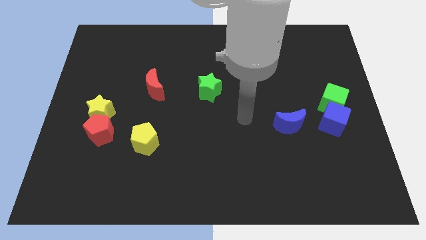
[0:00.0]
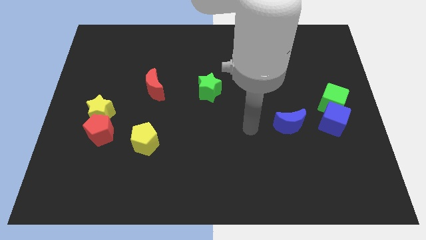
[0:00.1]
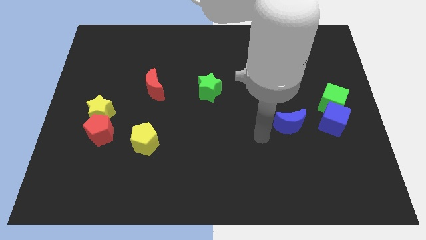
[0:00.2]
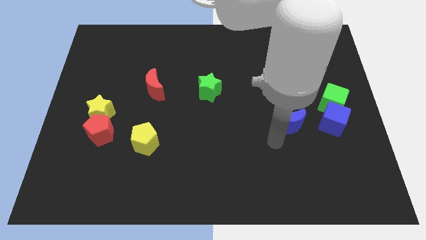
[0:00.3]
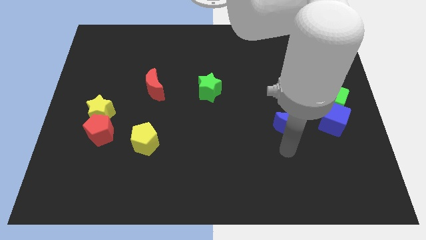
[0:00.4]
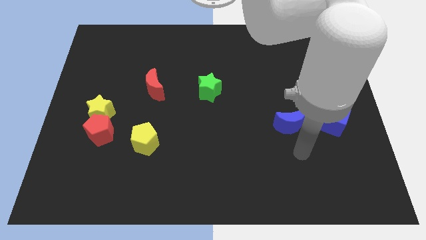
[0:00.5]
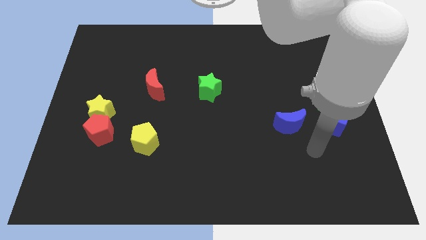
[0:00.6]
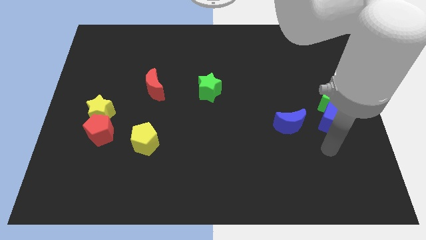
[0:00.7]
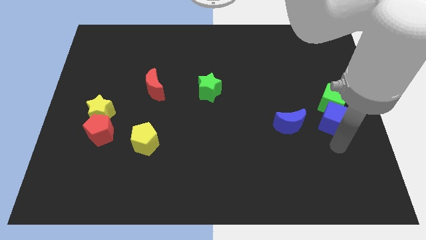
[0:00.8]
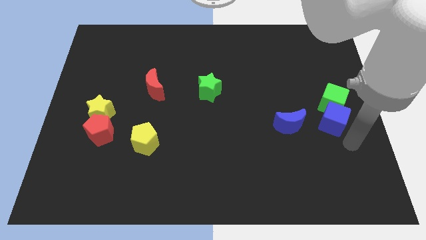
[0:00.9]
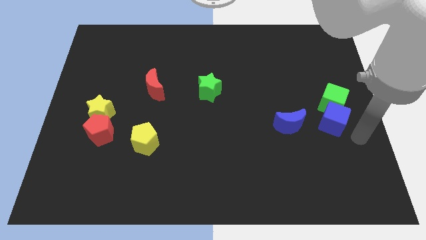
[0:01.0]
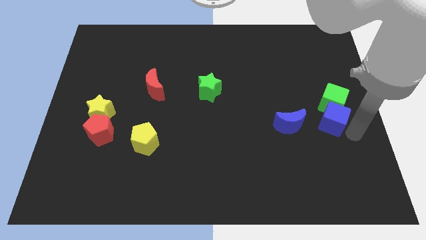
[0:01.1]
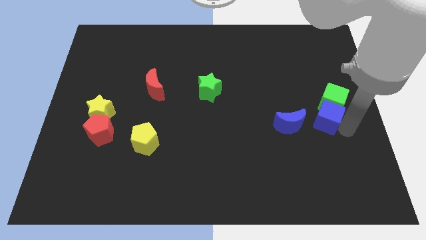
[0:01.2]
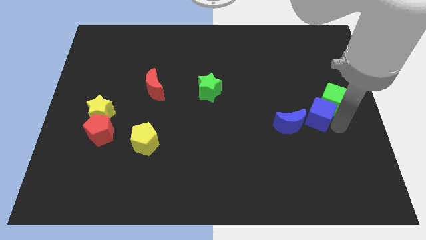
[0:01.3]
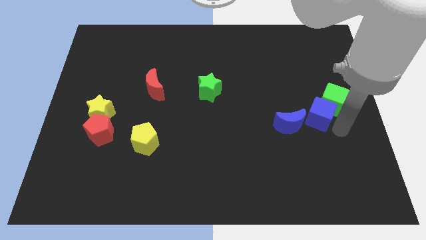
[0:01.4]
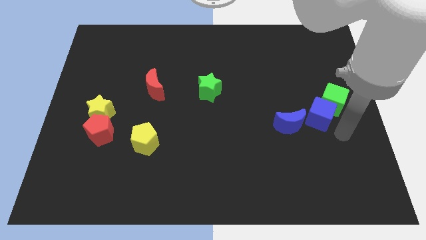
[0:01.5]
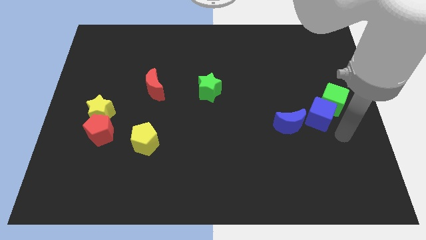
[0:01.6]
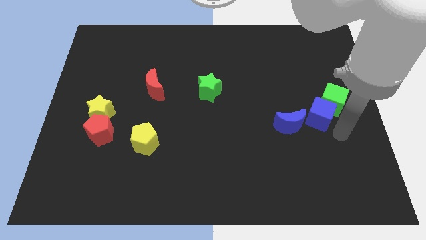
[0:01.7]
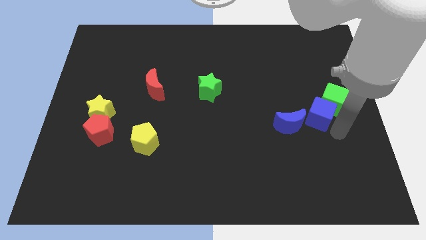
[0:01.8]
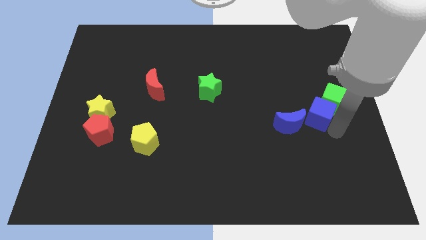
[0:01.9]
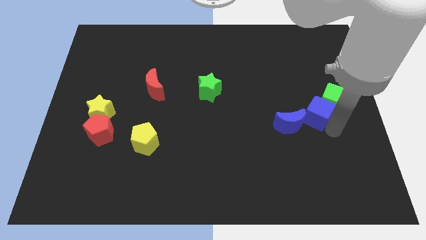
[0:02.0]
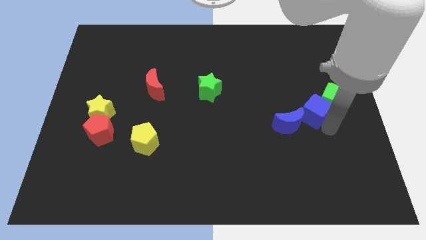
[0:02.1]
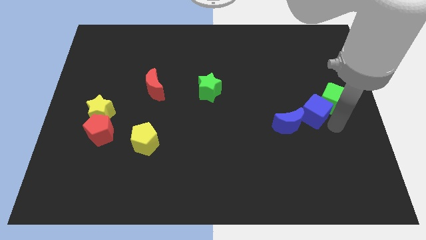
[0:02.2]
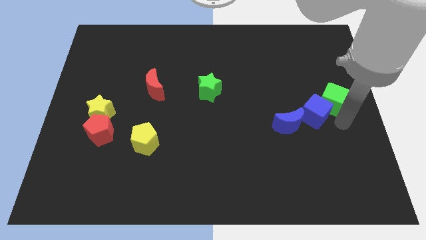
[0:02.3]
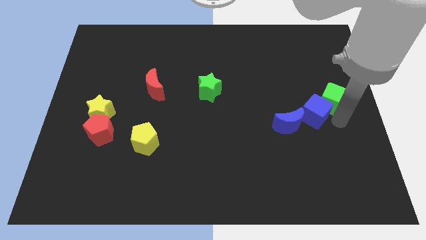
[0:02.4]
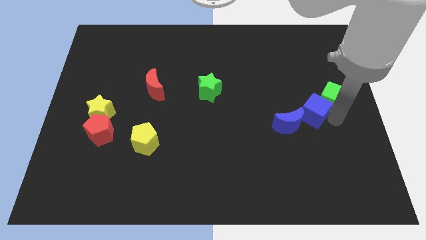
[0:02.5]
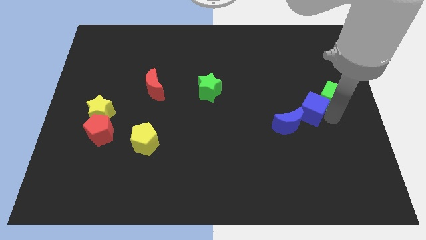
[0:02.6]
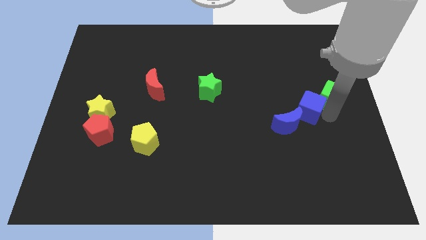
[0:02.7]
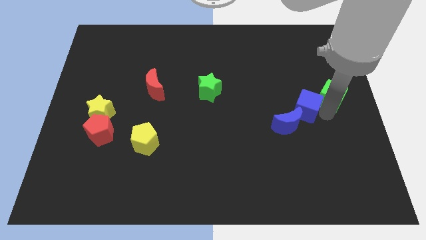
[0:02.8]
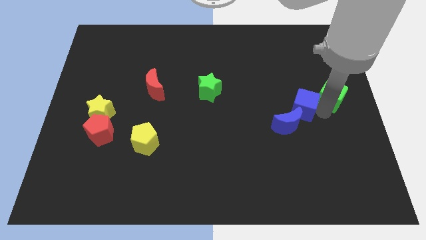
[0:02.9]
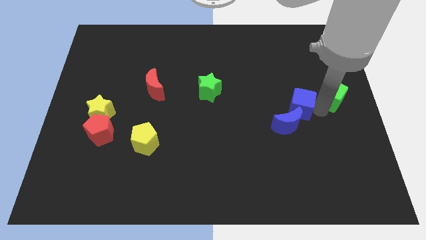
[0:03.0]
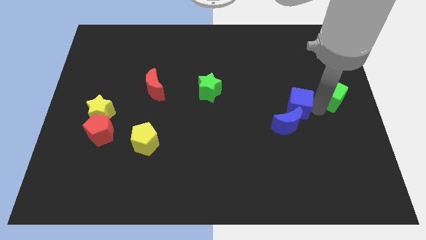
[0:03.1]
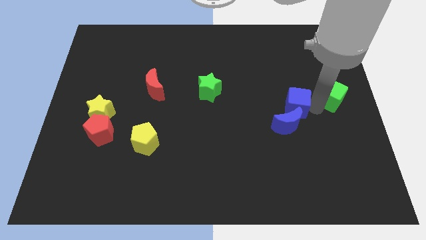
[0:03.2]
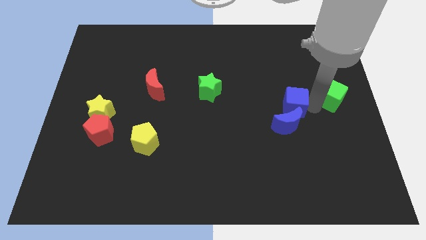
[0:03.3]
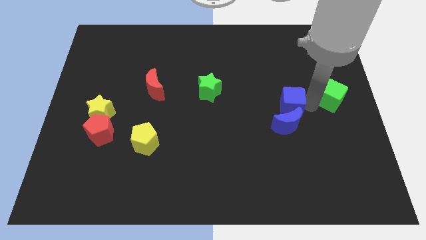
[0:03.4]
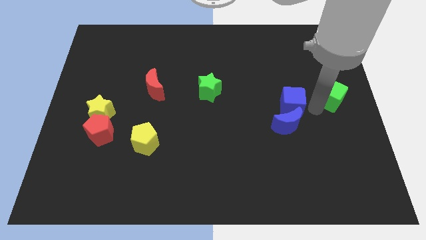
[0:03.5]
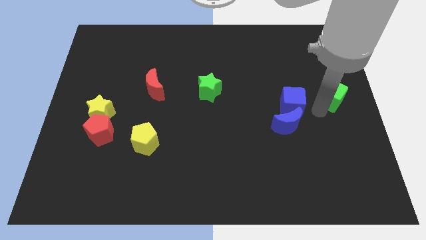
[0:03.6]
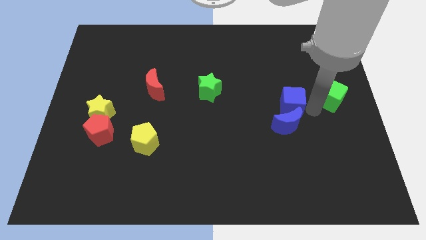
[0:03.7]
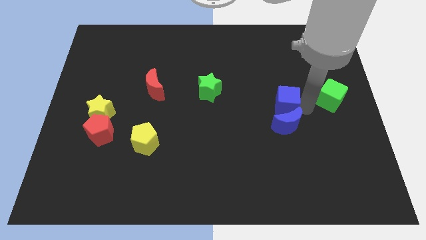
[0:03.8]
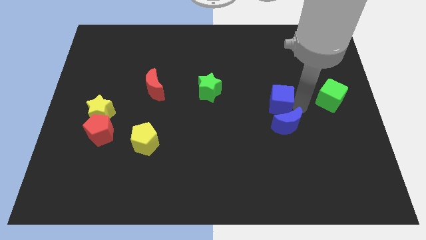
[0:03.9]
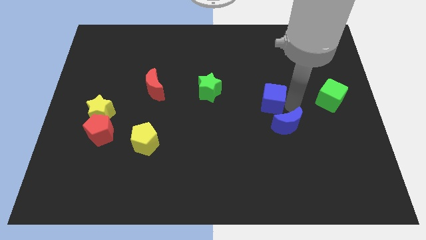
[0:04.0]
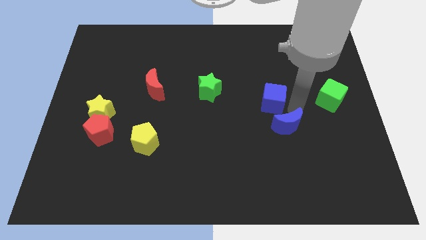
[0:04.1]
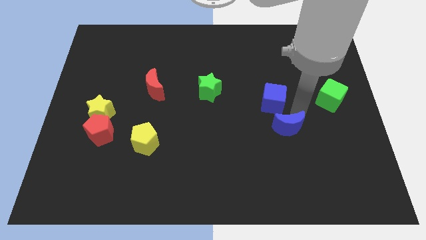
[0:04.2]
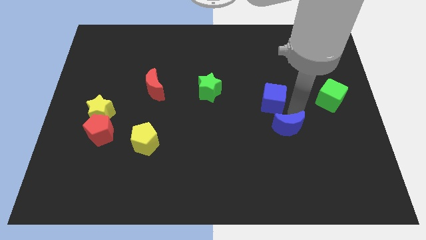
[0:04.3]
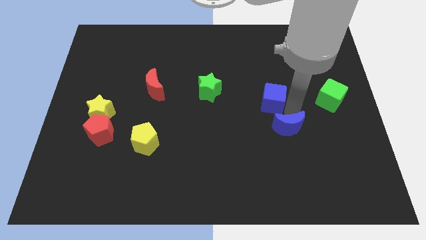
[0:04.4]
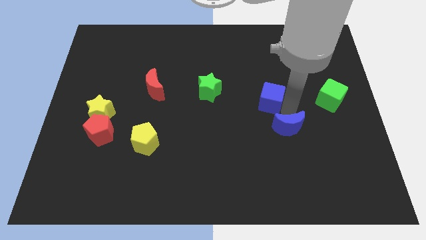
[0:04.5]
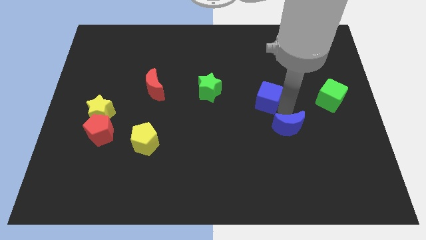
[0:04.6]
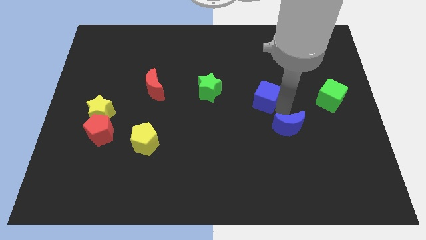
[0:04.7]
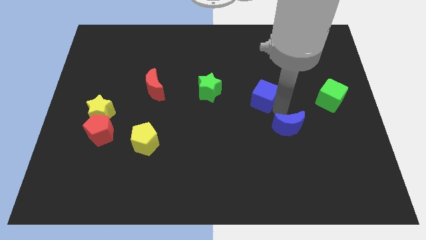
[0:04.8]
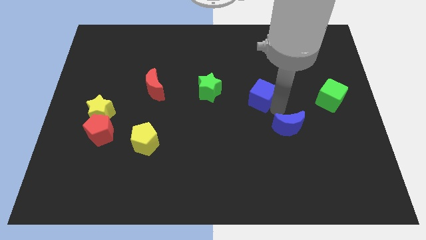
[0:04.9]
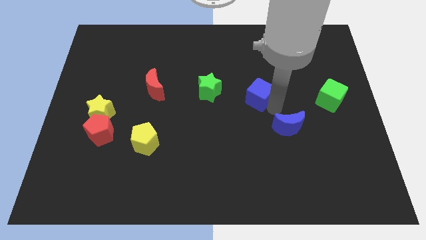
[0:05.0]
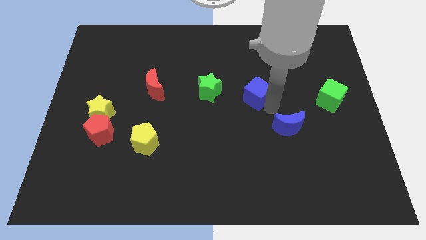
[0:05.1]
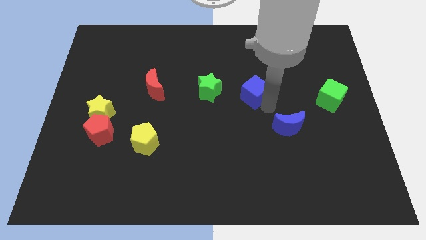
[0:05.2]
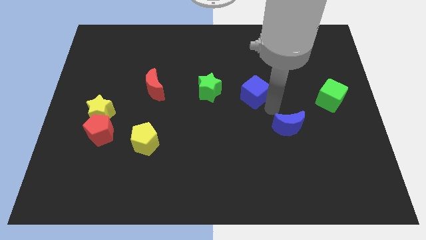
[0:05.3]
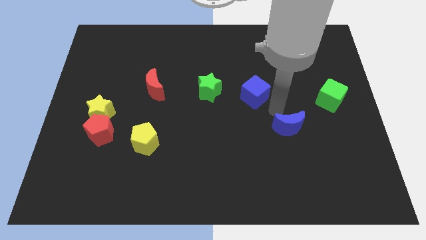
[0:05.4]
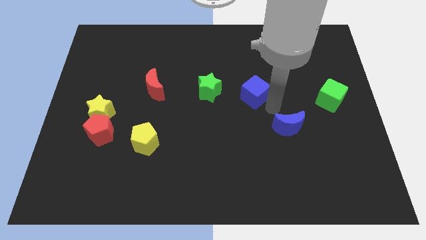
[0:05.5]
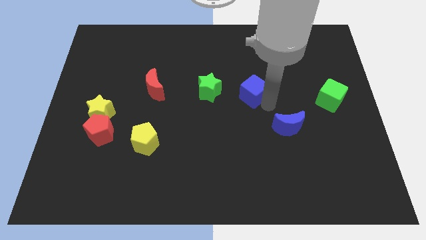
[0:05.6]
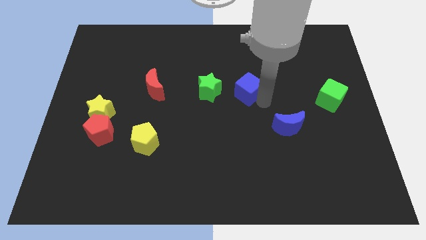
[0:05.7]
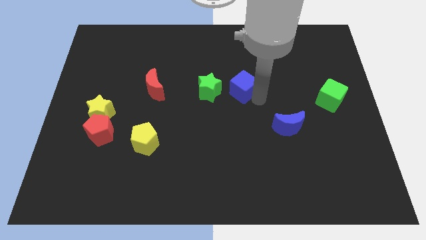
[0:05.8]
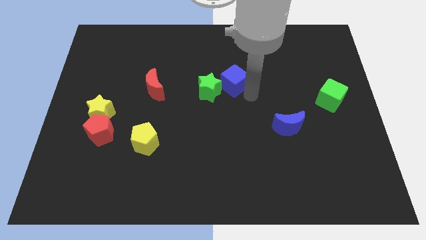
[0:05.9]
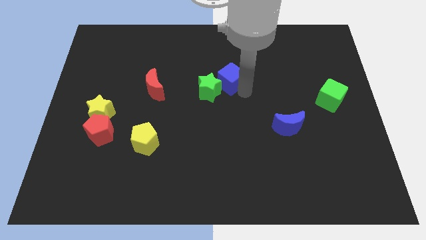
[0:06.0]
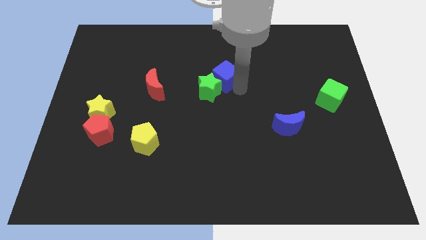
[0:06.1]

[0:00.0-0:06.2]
move the blue cube to the top side of the green star
